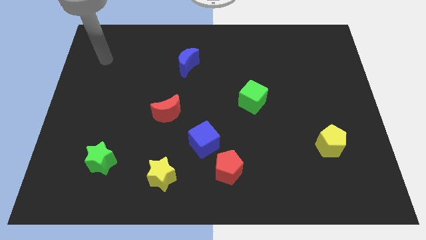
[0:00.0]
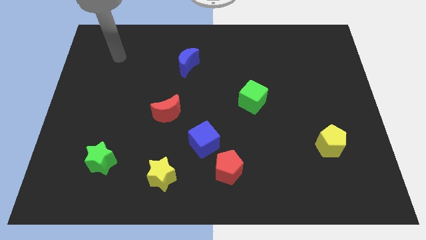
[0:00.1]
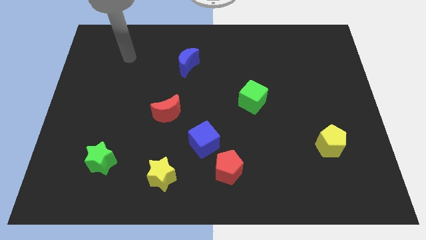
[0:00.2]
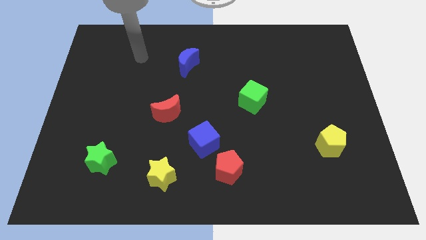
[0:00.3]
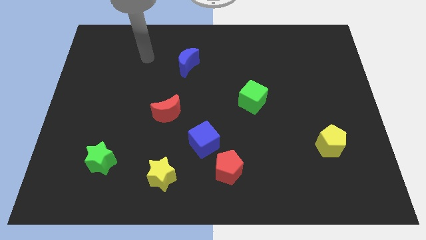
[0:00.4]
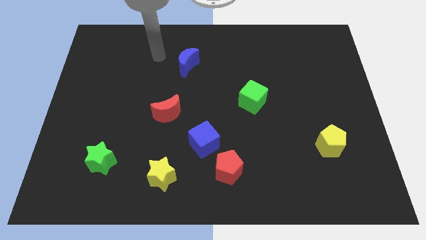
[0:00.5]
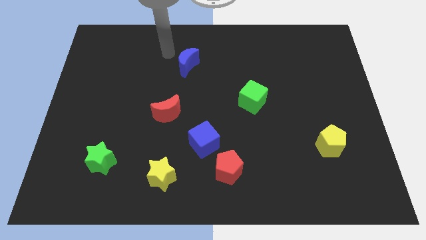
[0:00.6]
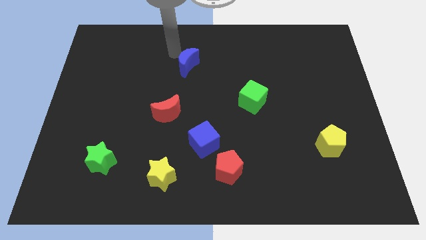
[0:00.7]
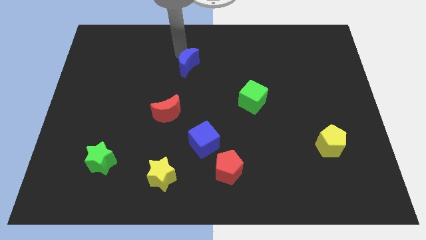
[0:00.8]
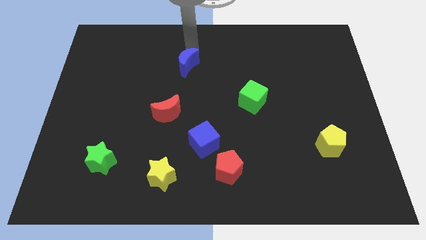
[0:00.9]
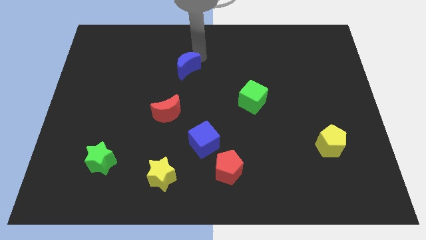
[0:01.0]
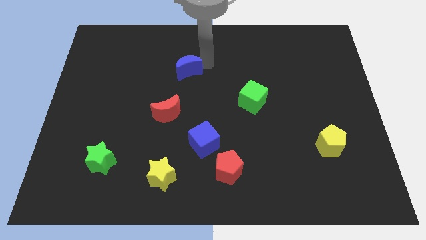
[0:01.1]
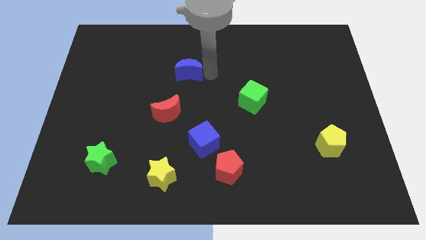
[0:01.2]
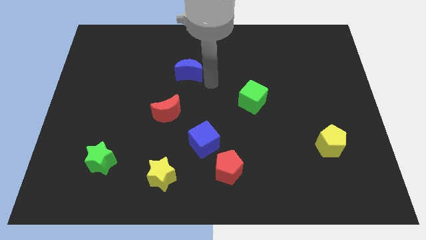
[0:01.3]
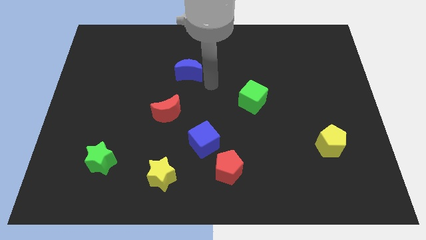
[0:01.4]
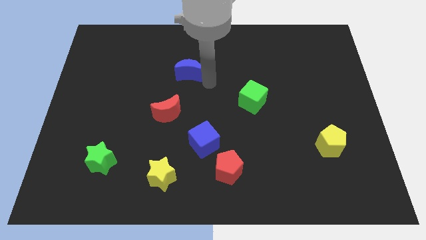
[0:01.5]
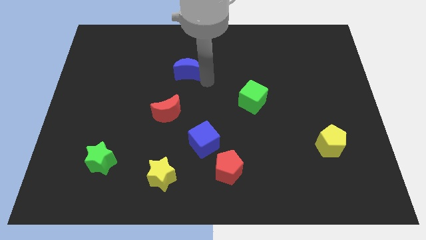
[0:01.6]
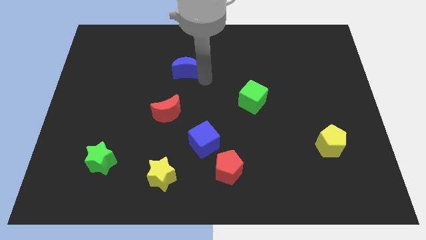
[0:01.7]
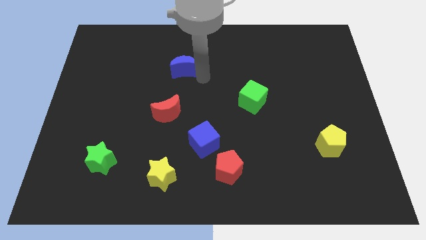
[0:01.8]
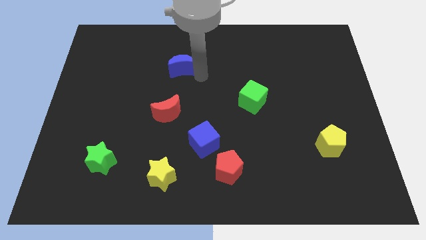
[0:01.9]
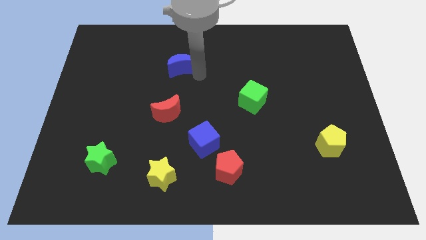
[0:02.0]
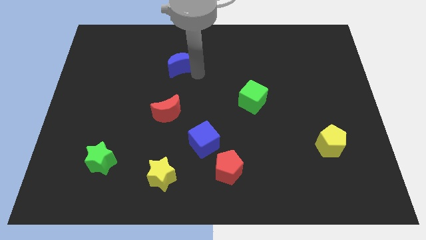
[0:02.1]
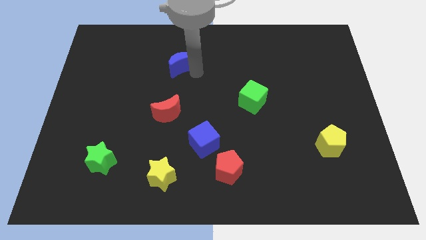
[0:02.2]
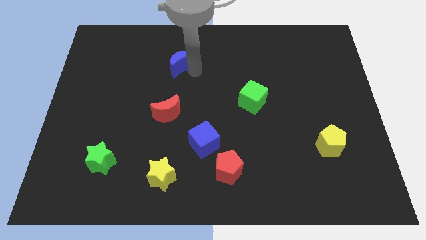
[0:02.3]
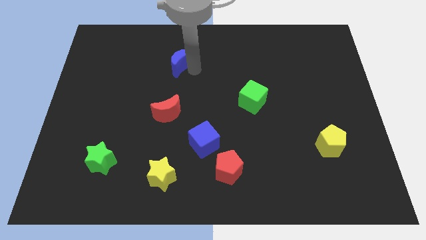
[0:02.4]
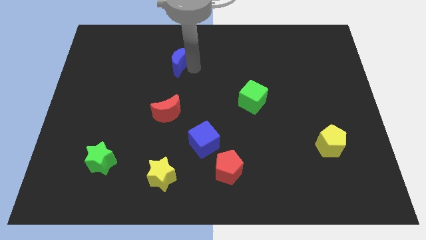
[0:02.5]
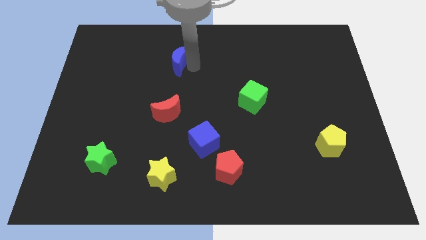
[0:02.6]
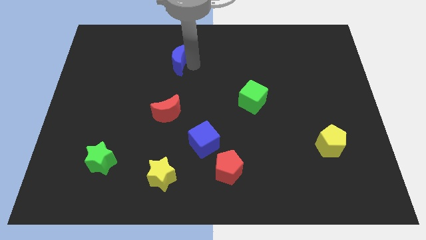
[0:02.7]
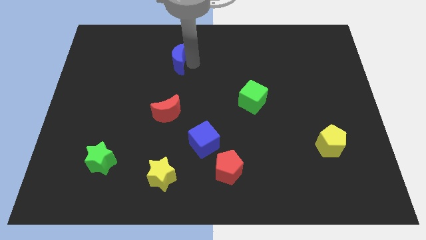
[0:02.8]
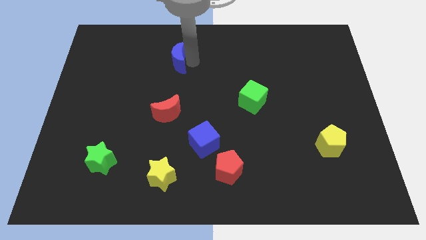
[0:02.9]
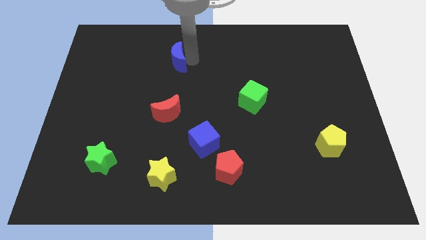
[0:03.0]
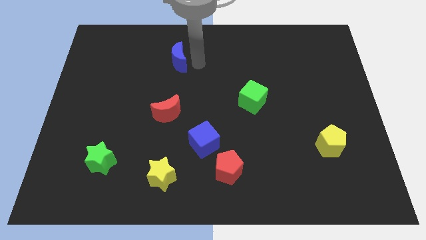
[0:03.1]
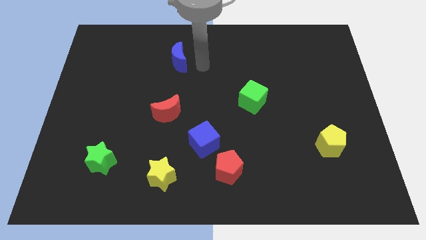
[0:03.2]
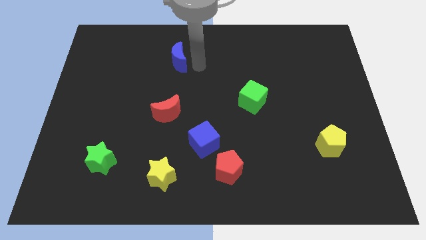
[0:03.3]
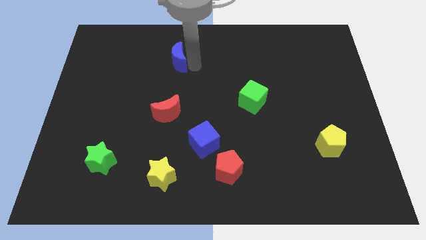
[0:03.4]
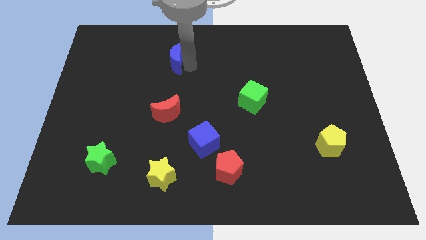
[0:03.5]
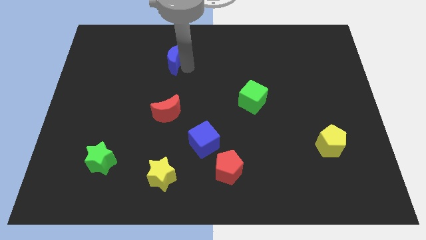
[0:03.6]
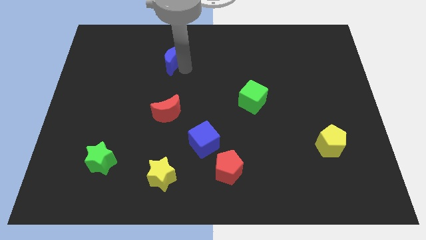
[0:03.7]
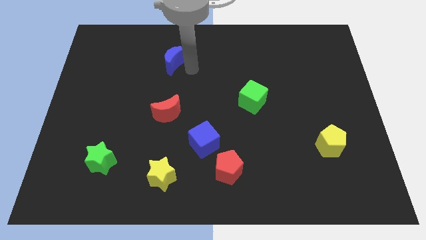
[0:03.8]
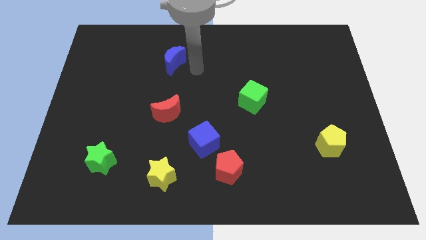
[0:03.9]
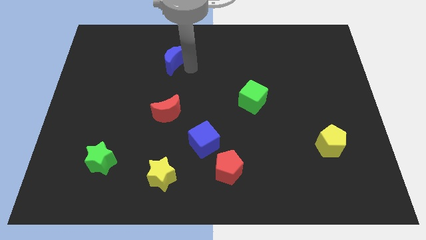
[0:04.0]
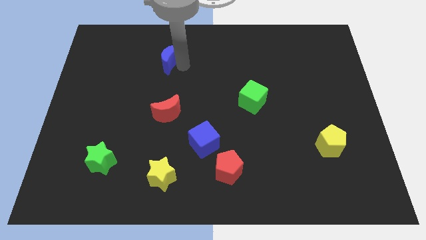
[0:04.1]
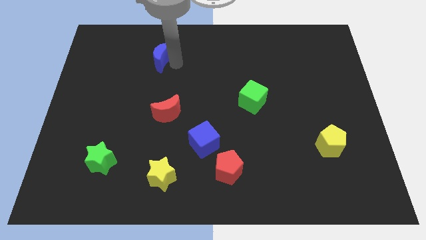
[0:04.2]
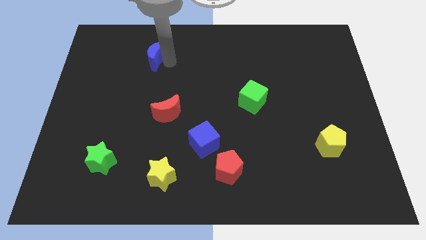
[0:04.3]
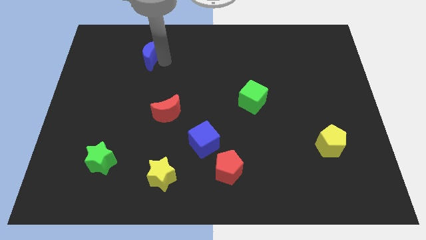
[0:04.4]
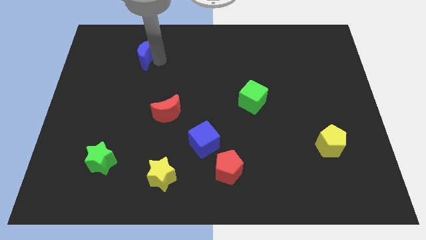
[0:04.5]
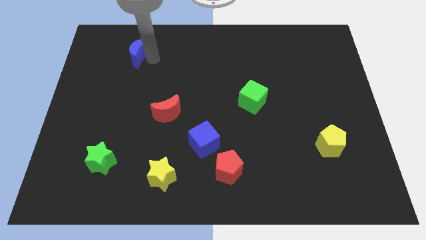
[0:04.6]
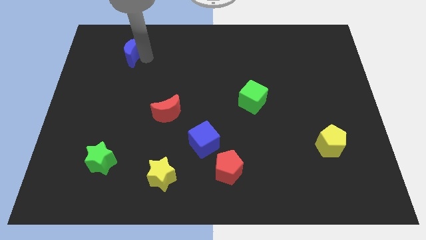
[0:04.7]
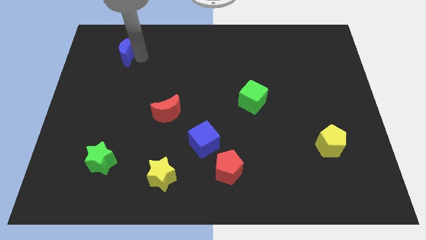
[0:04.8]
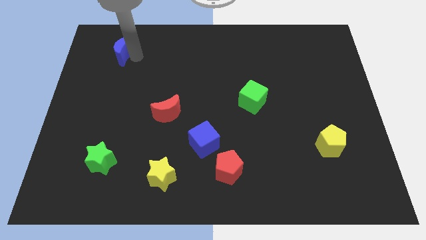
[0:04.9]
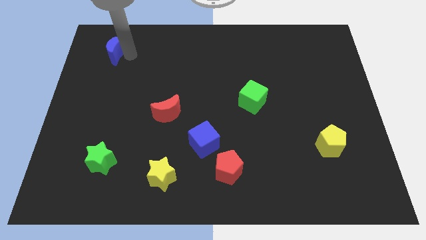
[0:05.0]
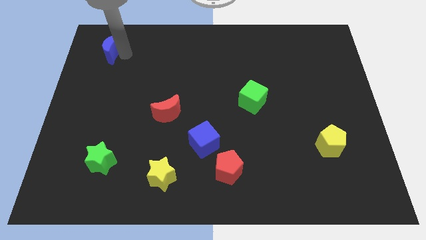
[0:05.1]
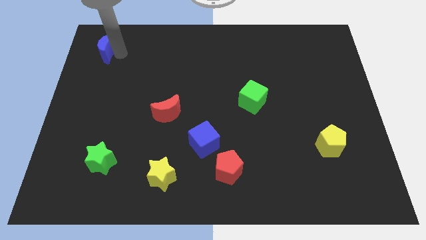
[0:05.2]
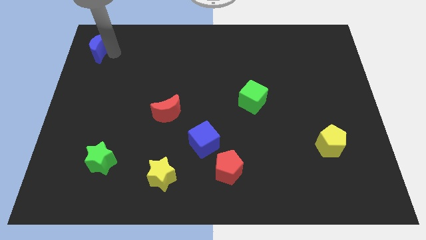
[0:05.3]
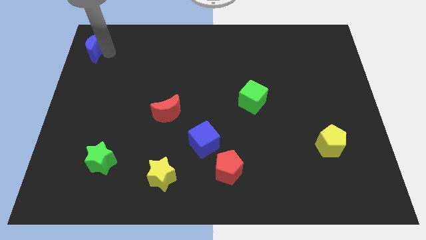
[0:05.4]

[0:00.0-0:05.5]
put the blue moon to the top left

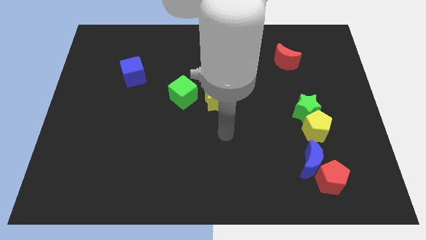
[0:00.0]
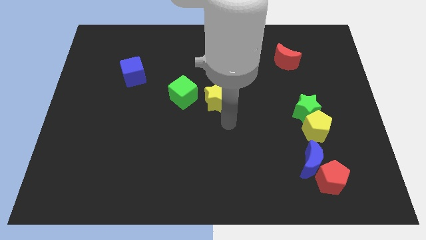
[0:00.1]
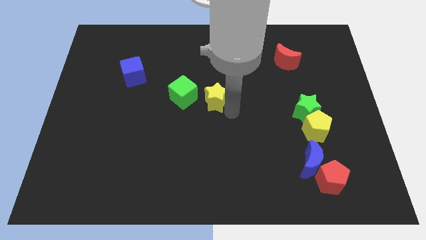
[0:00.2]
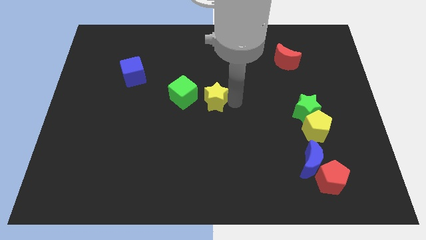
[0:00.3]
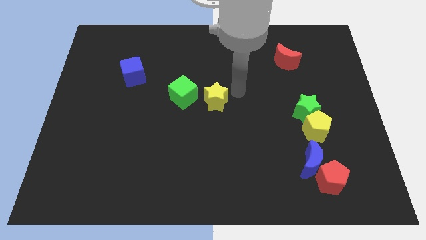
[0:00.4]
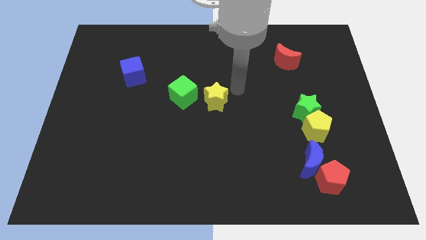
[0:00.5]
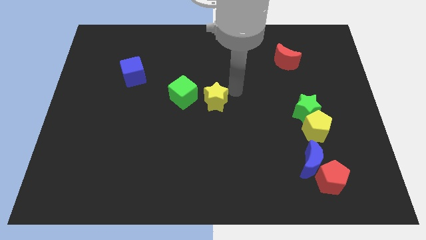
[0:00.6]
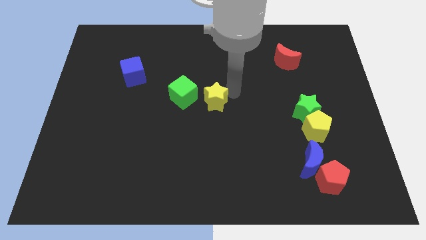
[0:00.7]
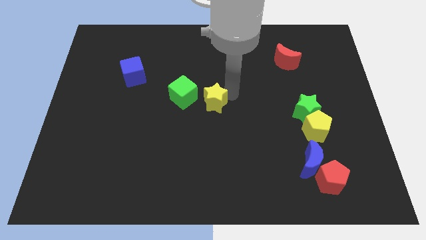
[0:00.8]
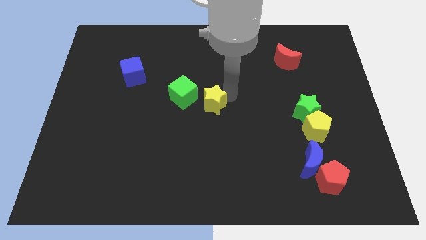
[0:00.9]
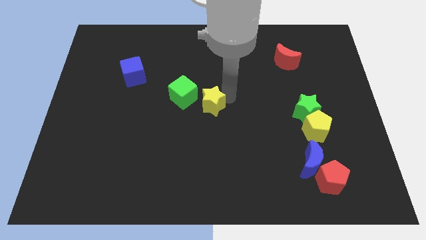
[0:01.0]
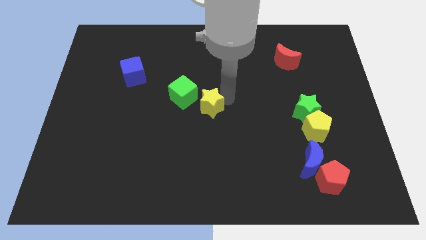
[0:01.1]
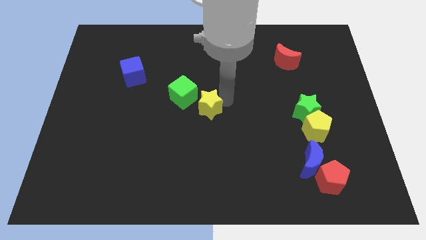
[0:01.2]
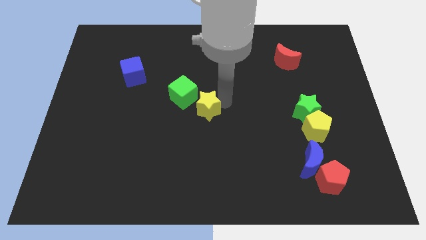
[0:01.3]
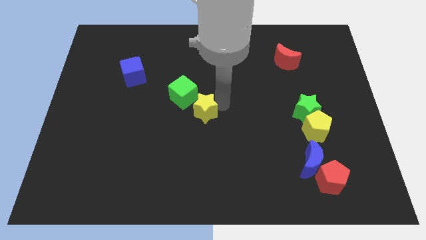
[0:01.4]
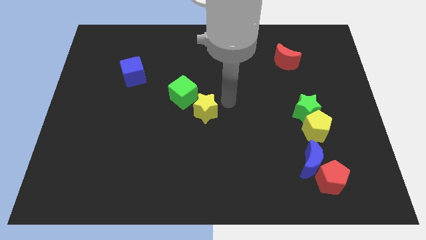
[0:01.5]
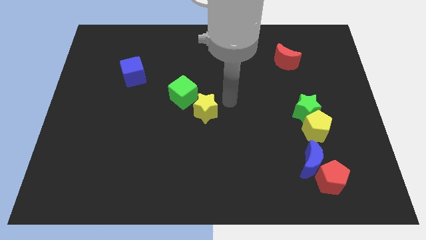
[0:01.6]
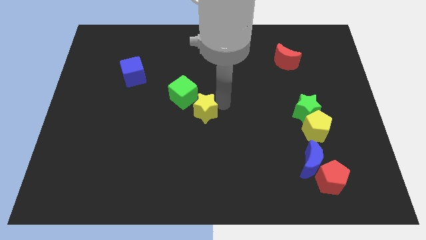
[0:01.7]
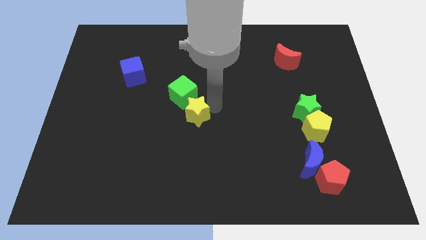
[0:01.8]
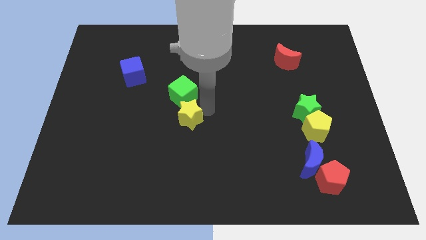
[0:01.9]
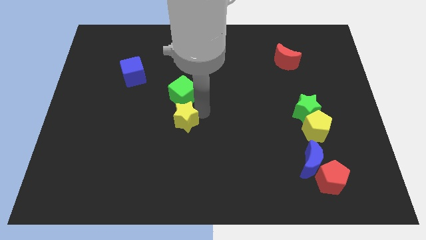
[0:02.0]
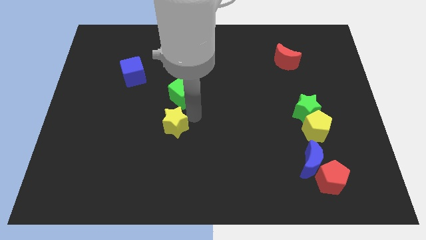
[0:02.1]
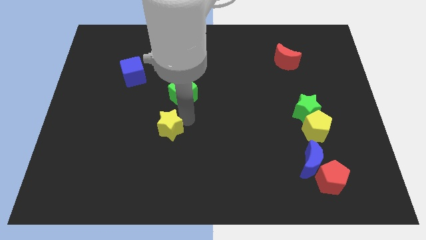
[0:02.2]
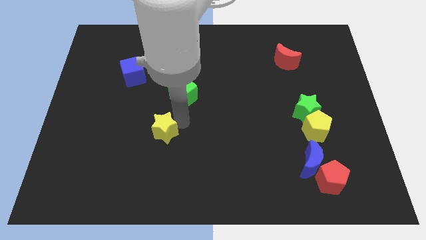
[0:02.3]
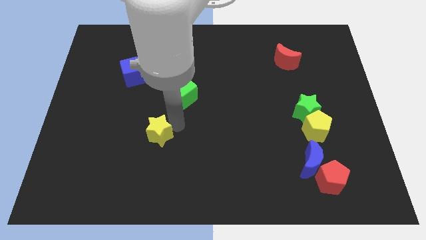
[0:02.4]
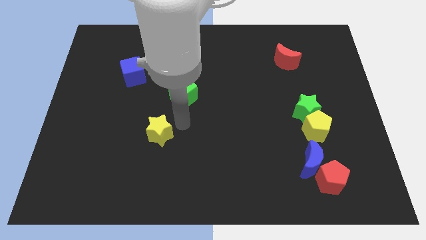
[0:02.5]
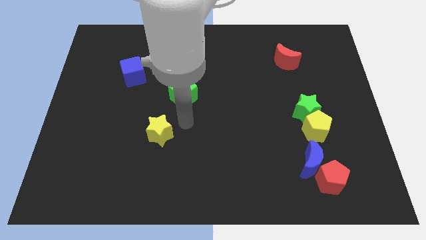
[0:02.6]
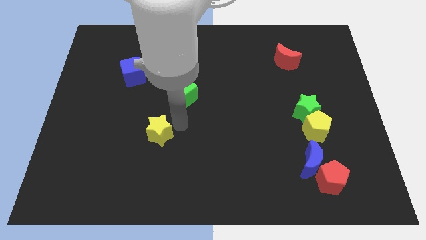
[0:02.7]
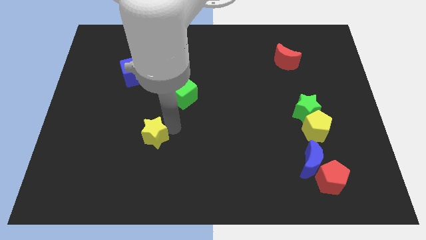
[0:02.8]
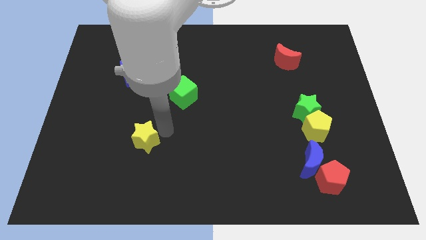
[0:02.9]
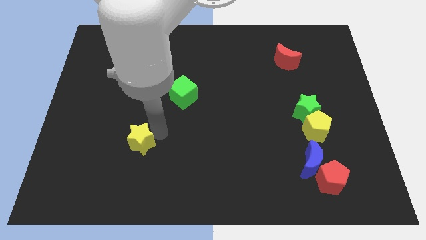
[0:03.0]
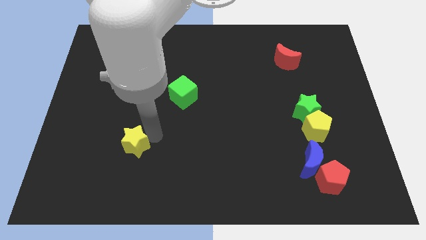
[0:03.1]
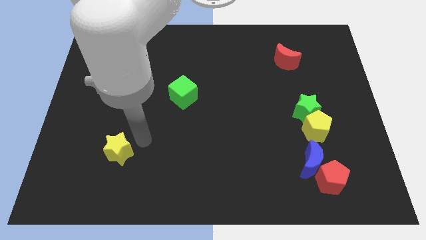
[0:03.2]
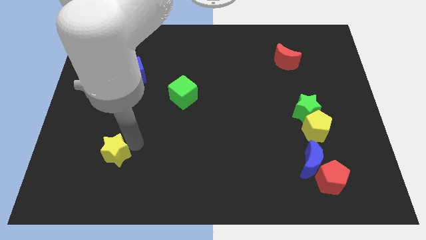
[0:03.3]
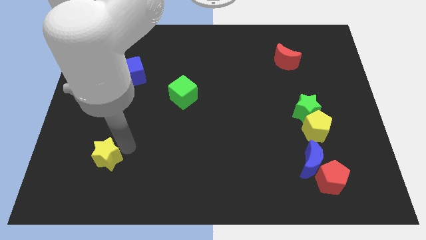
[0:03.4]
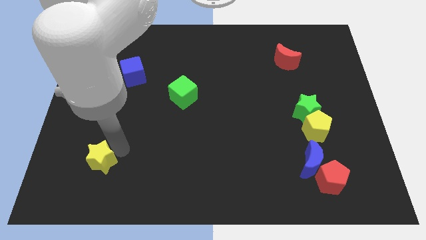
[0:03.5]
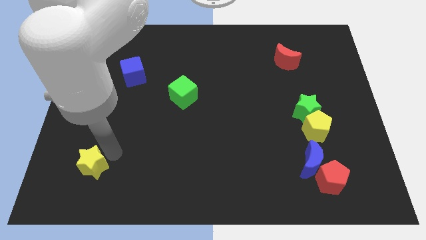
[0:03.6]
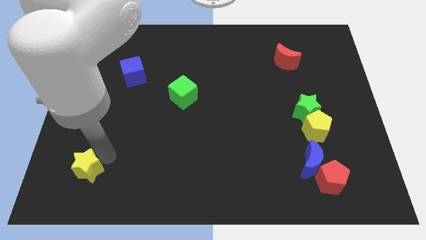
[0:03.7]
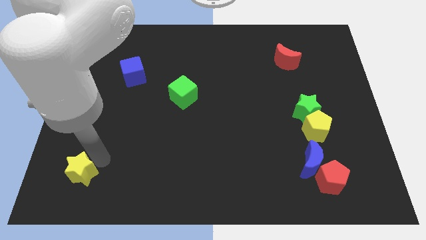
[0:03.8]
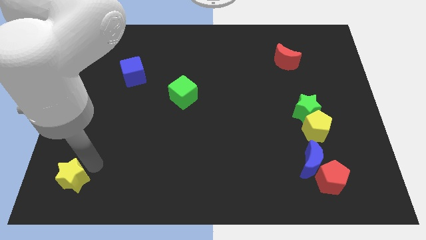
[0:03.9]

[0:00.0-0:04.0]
slide the yellow star to the bottom left of the board
